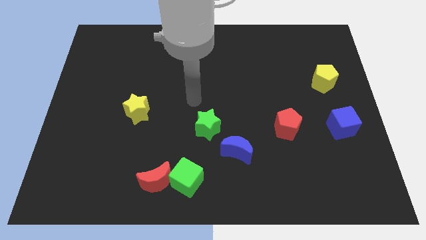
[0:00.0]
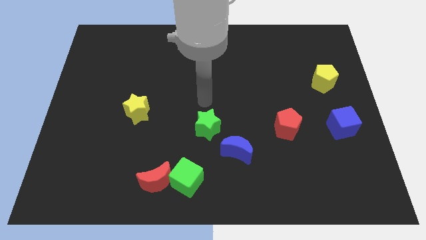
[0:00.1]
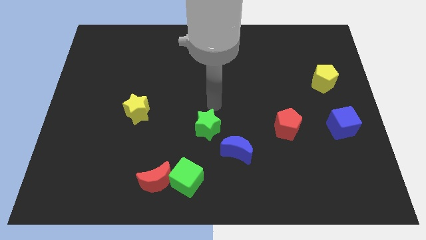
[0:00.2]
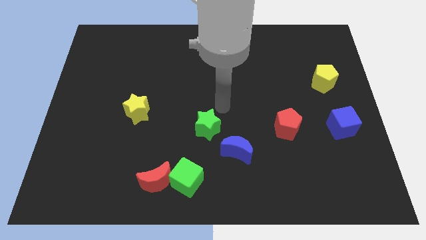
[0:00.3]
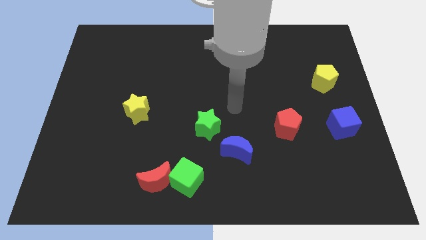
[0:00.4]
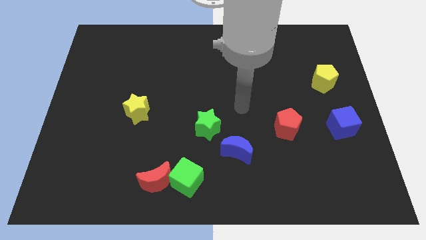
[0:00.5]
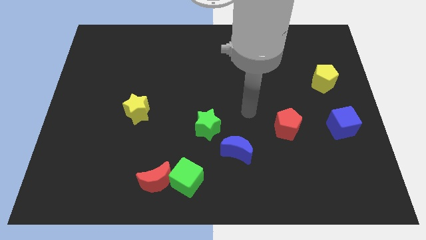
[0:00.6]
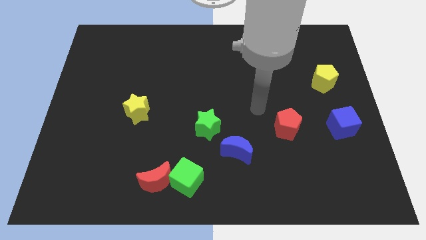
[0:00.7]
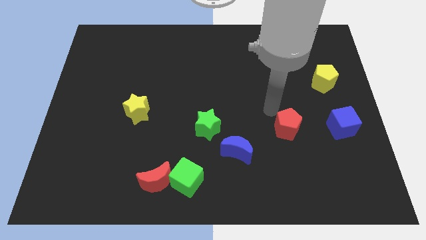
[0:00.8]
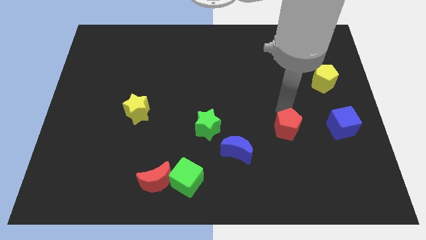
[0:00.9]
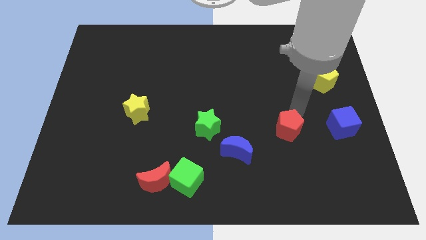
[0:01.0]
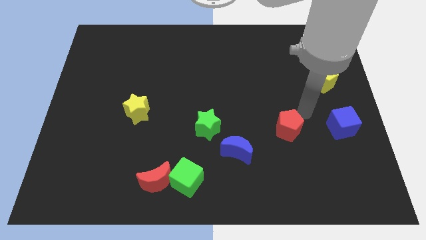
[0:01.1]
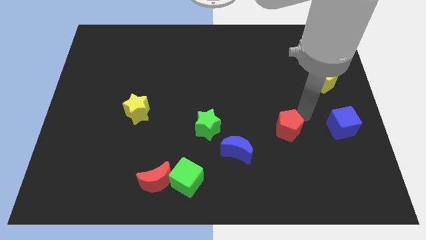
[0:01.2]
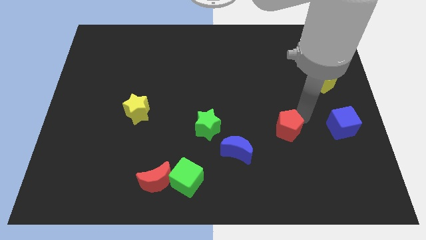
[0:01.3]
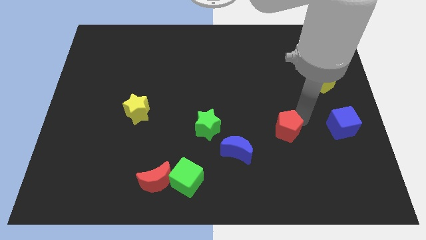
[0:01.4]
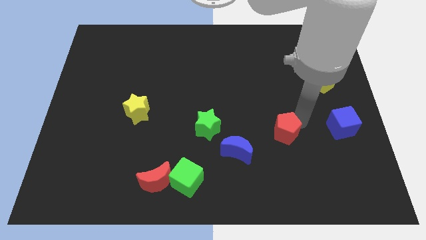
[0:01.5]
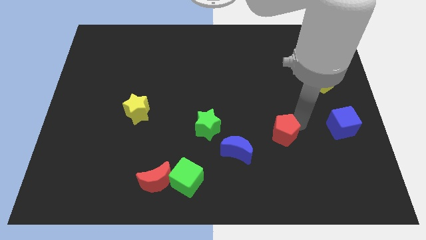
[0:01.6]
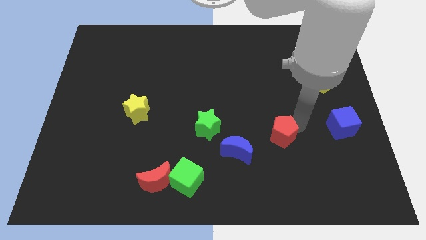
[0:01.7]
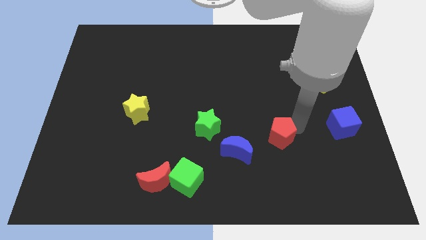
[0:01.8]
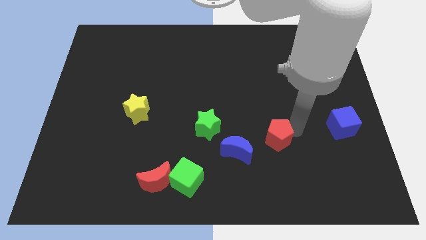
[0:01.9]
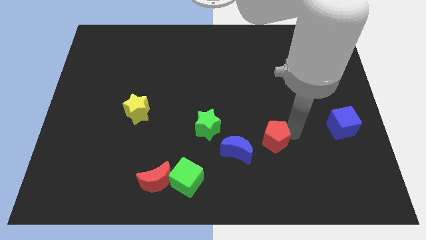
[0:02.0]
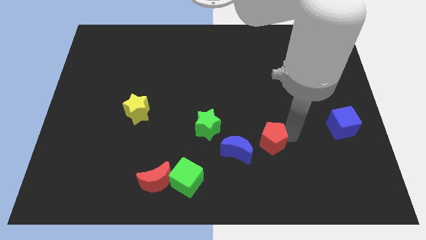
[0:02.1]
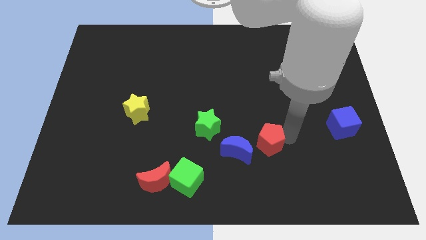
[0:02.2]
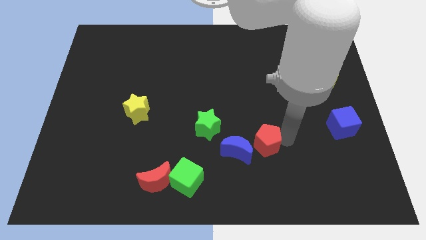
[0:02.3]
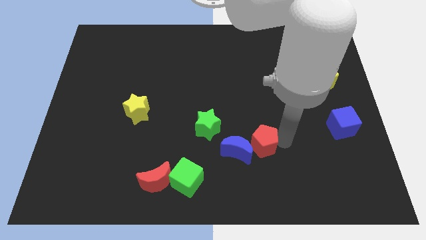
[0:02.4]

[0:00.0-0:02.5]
slide the red pentagon somewhat diagonally downwards and to the left

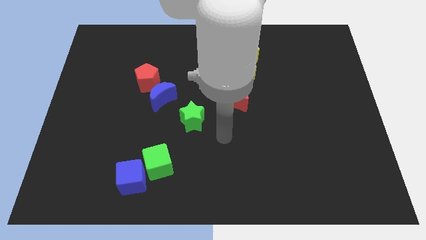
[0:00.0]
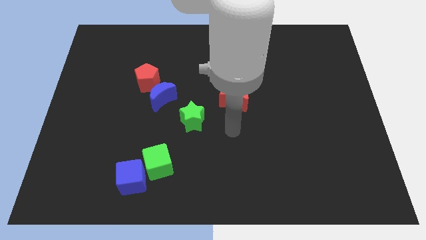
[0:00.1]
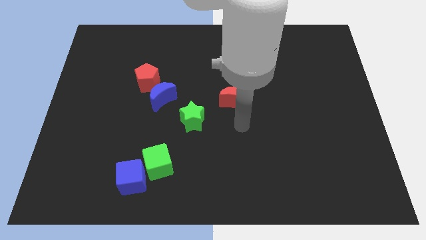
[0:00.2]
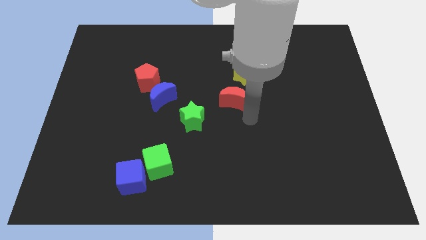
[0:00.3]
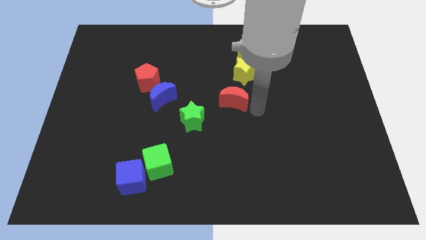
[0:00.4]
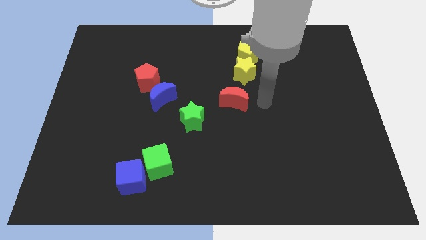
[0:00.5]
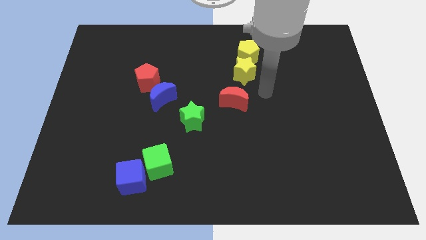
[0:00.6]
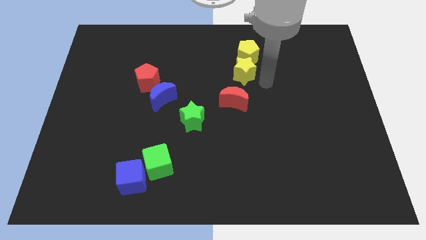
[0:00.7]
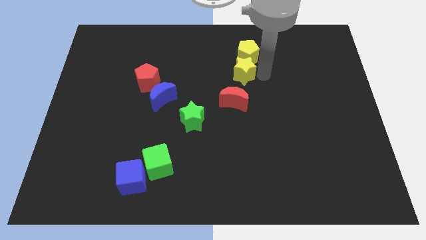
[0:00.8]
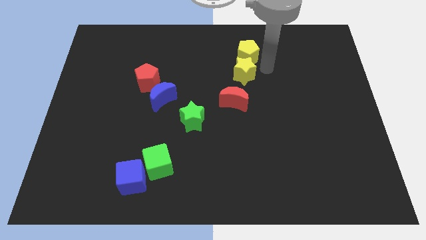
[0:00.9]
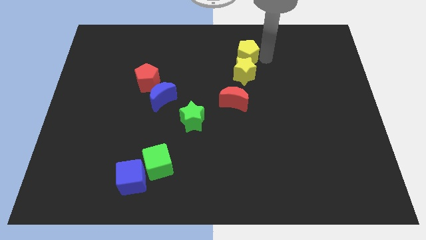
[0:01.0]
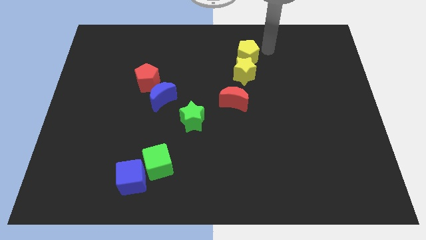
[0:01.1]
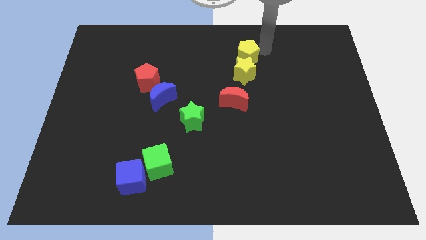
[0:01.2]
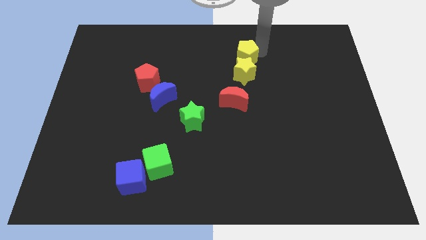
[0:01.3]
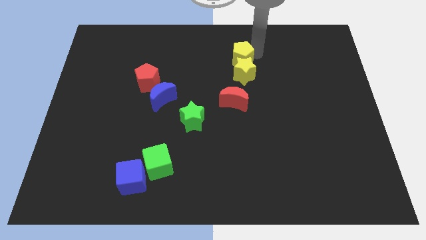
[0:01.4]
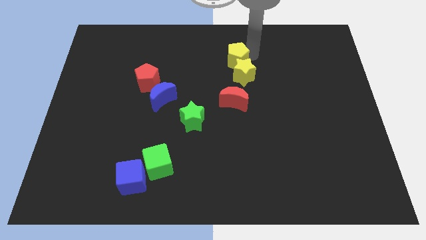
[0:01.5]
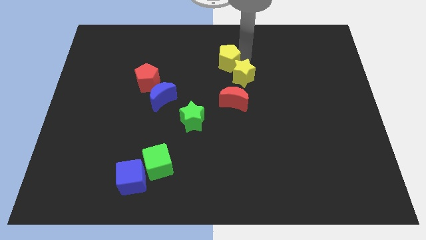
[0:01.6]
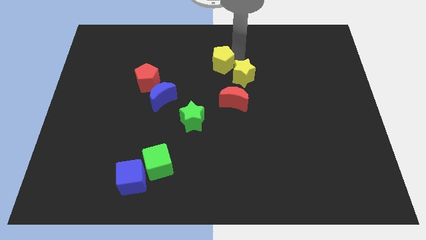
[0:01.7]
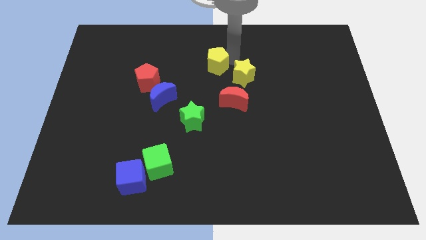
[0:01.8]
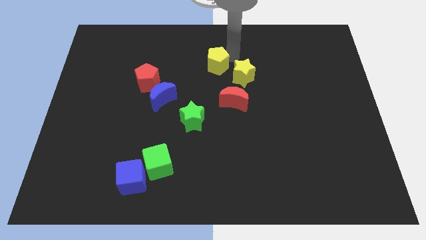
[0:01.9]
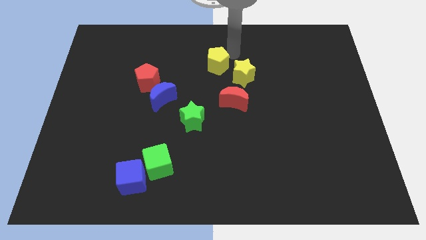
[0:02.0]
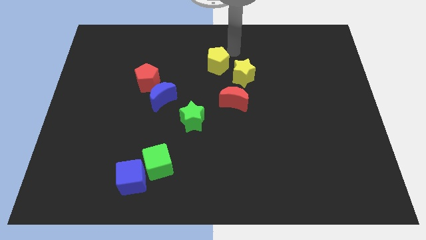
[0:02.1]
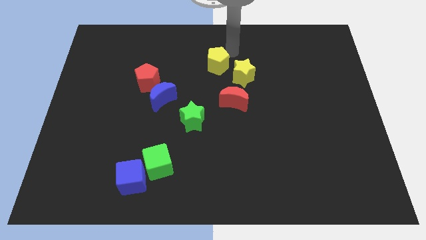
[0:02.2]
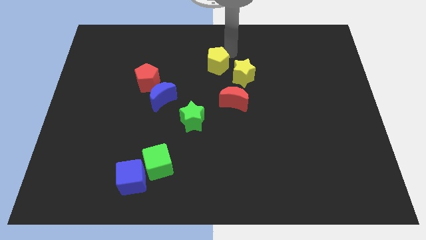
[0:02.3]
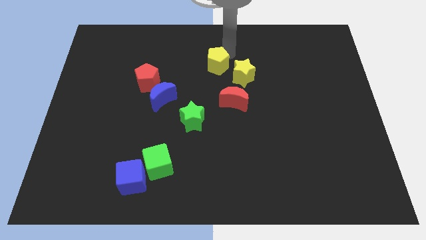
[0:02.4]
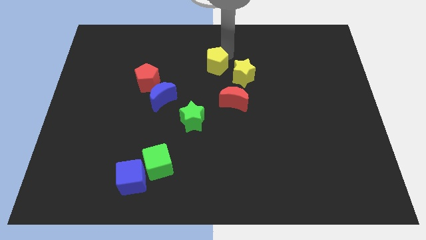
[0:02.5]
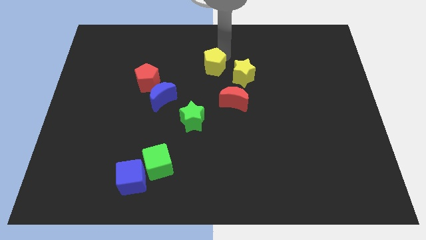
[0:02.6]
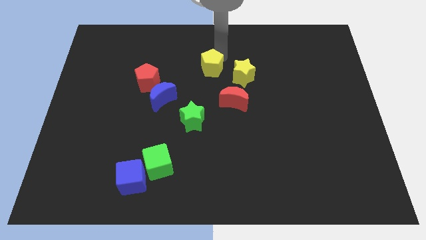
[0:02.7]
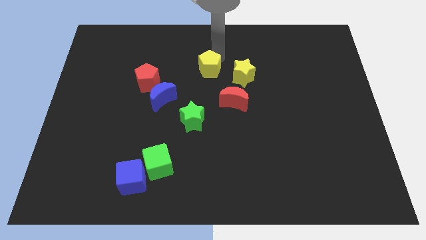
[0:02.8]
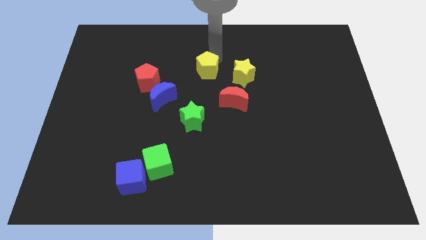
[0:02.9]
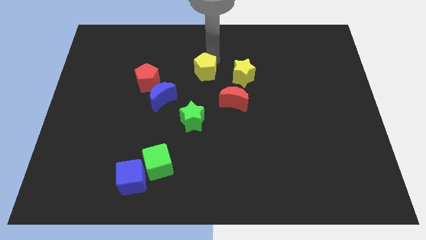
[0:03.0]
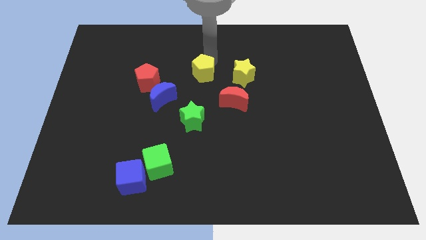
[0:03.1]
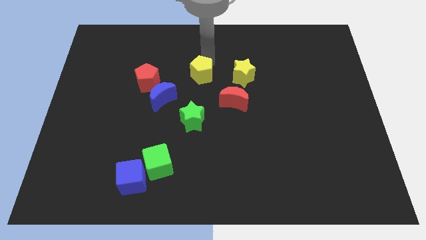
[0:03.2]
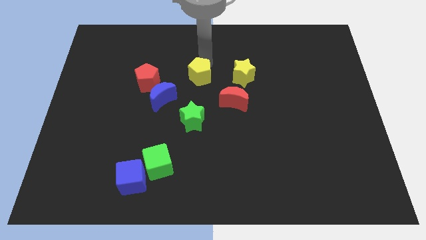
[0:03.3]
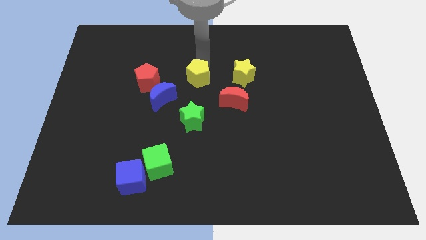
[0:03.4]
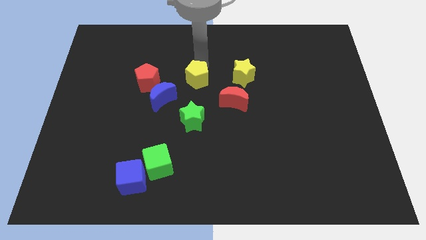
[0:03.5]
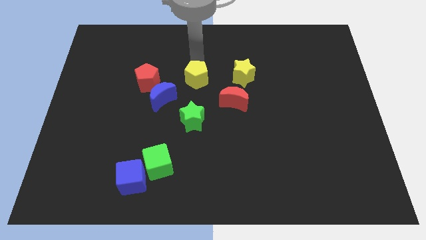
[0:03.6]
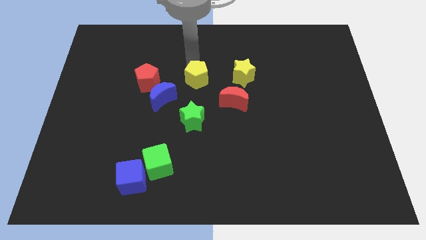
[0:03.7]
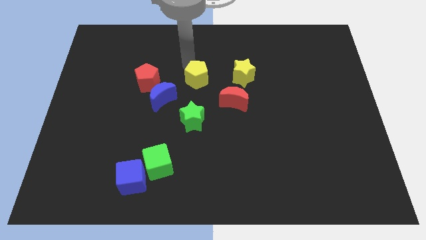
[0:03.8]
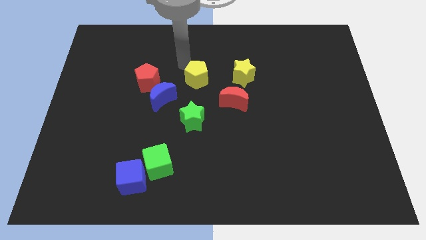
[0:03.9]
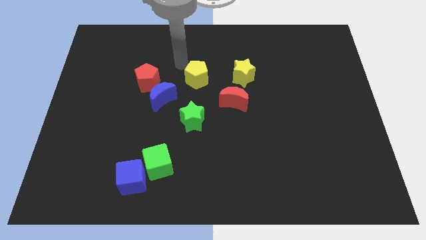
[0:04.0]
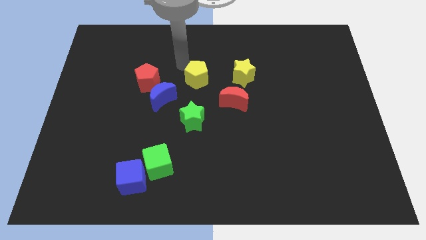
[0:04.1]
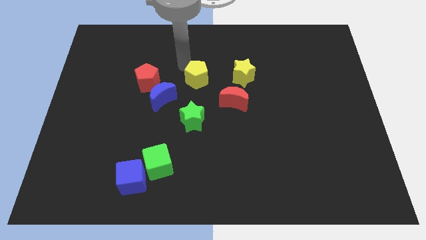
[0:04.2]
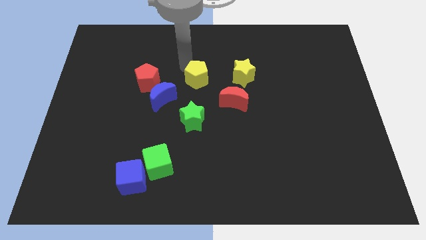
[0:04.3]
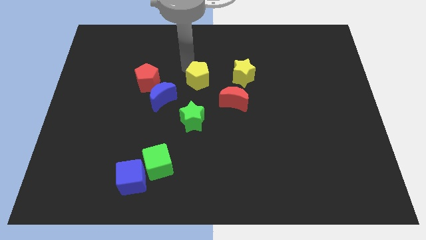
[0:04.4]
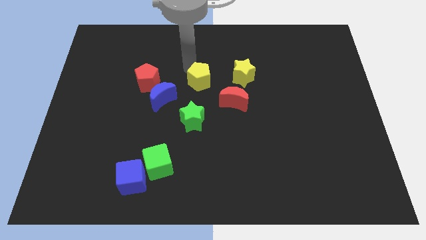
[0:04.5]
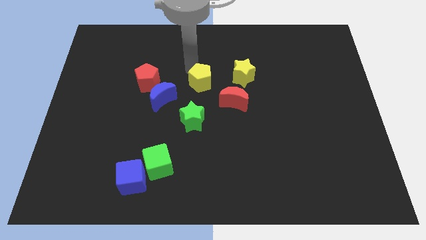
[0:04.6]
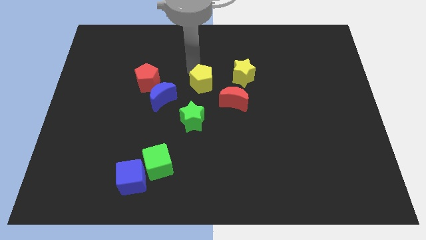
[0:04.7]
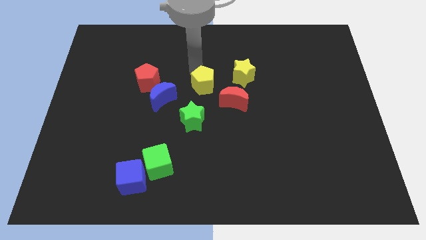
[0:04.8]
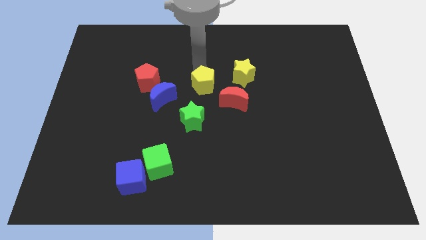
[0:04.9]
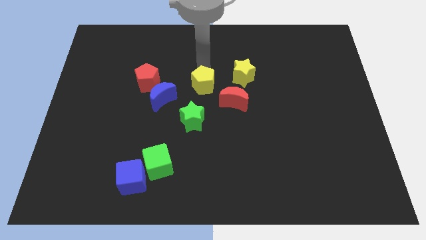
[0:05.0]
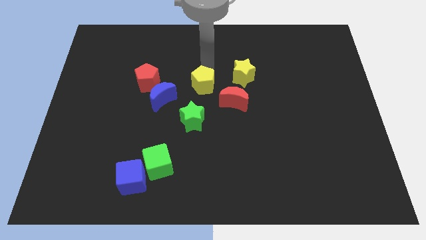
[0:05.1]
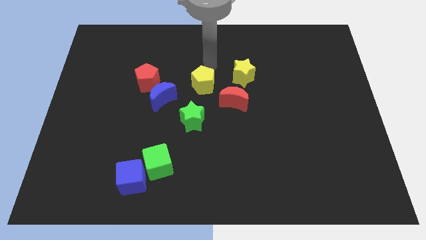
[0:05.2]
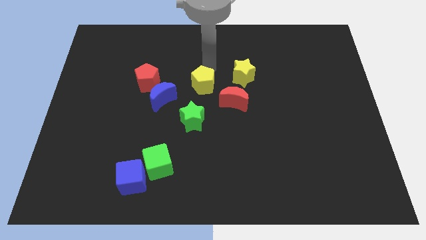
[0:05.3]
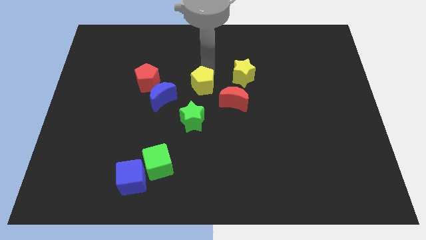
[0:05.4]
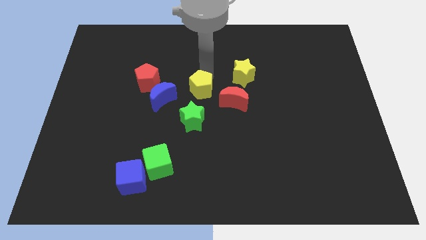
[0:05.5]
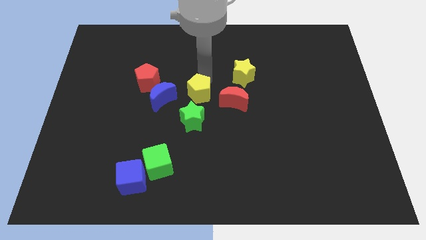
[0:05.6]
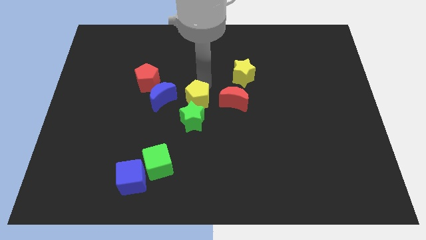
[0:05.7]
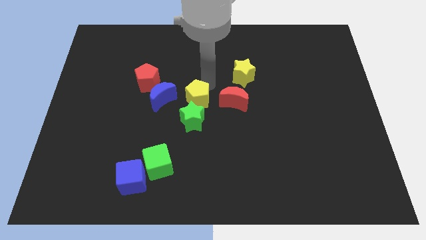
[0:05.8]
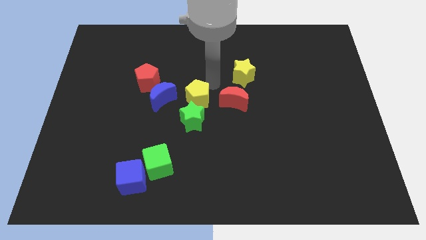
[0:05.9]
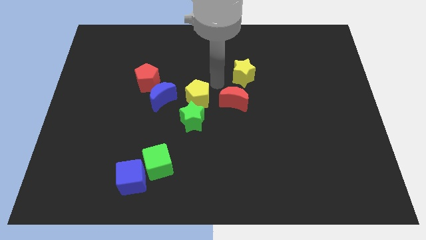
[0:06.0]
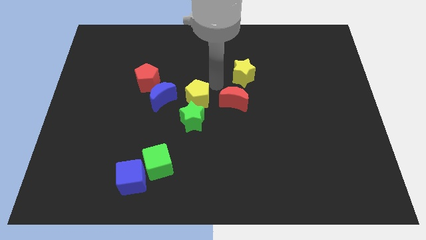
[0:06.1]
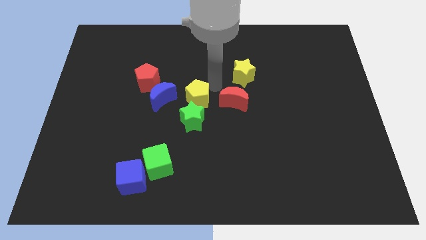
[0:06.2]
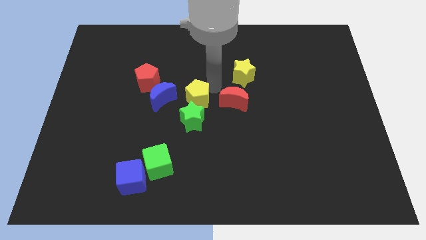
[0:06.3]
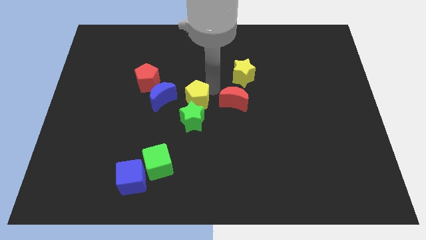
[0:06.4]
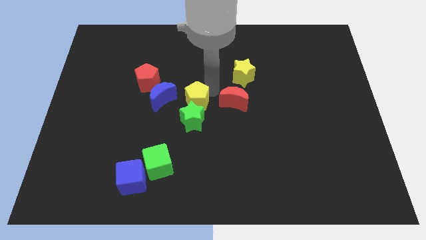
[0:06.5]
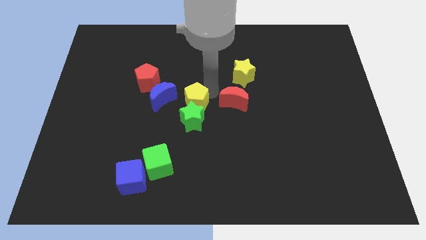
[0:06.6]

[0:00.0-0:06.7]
slide the yellow pentagon down and left
